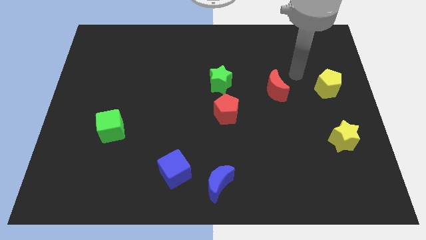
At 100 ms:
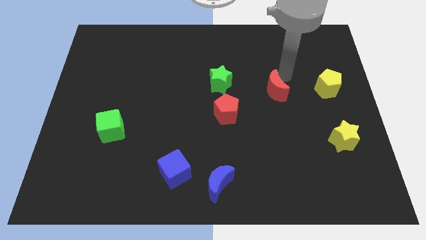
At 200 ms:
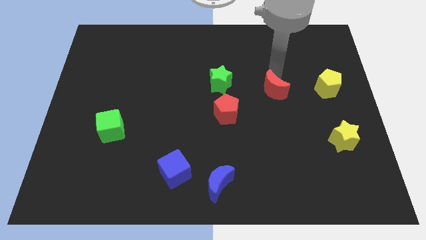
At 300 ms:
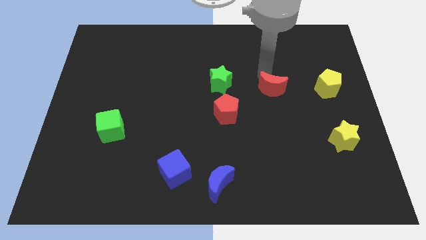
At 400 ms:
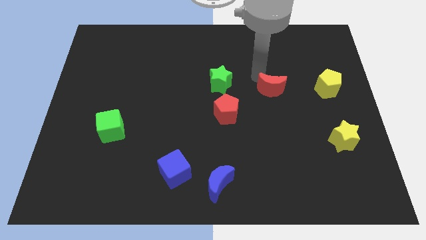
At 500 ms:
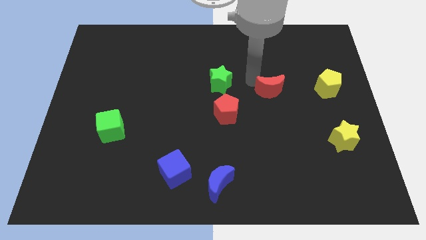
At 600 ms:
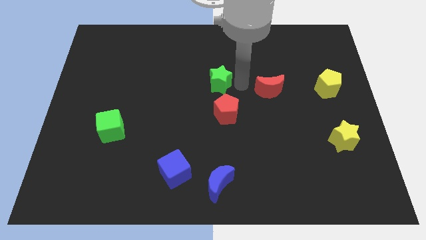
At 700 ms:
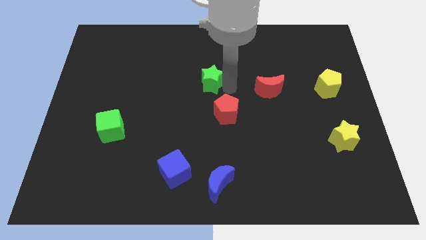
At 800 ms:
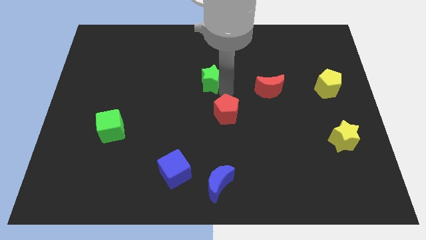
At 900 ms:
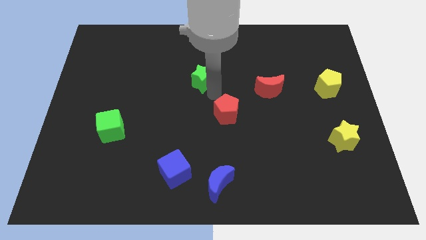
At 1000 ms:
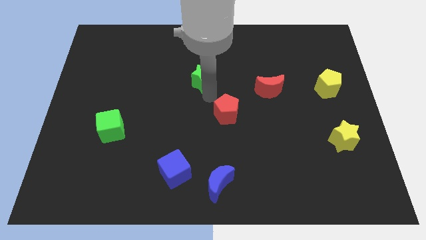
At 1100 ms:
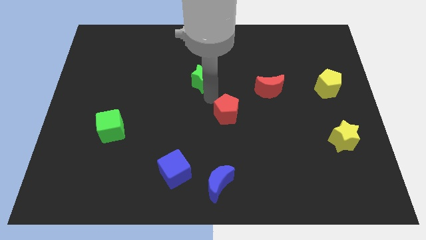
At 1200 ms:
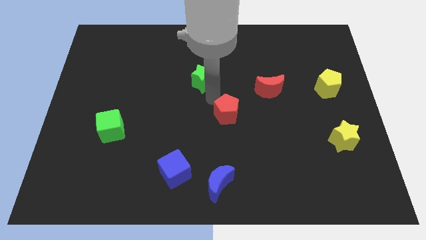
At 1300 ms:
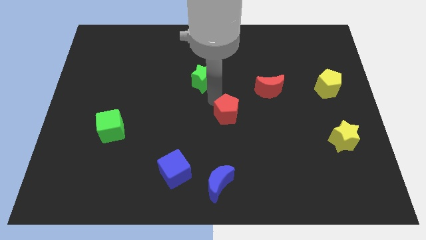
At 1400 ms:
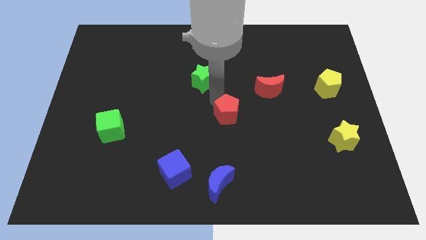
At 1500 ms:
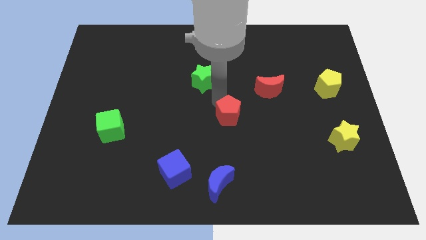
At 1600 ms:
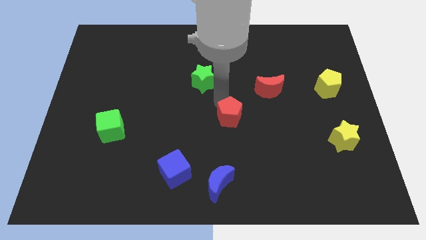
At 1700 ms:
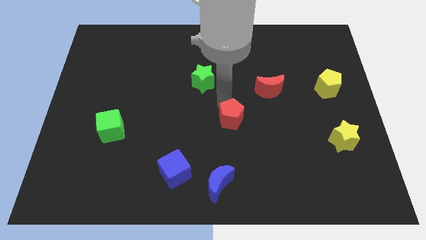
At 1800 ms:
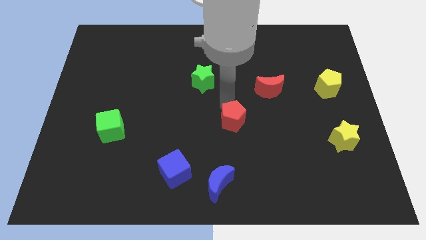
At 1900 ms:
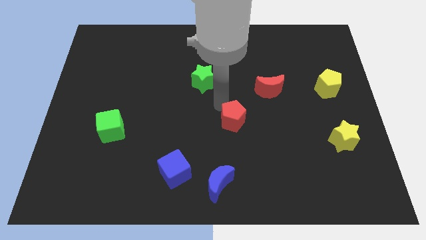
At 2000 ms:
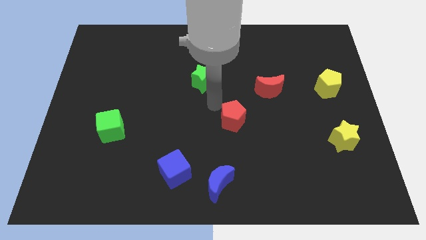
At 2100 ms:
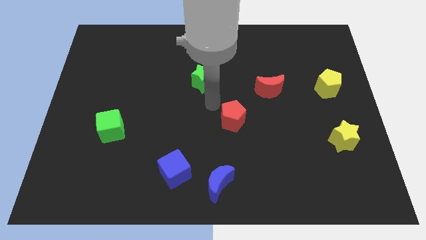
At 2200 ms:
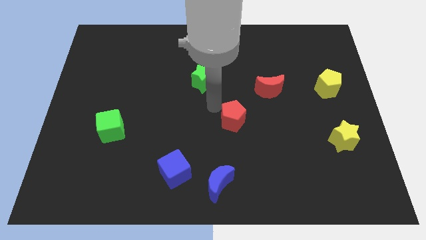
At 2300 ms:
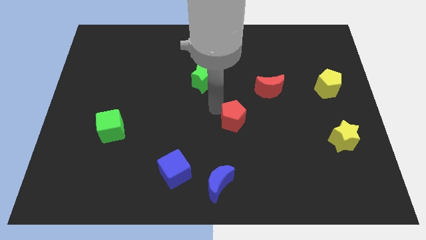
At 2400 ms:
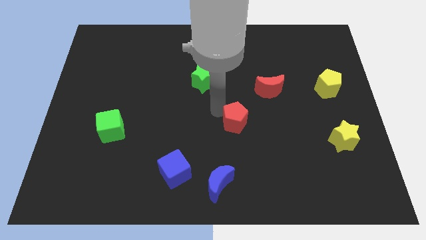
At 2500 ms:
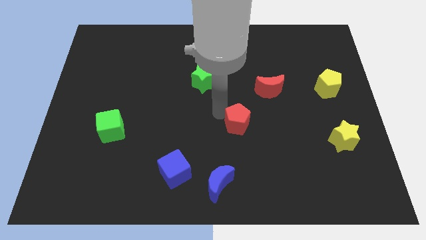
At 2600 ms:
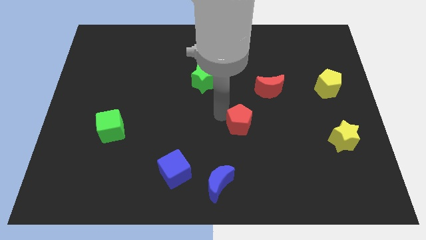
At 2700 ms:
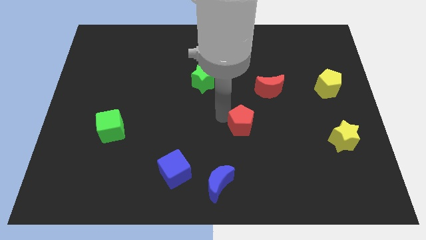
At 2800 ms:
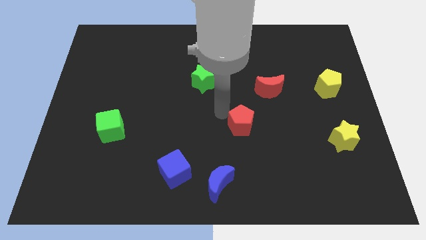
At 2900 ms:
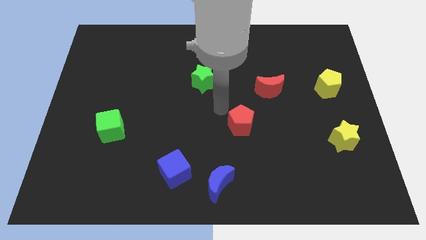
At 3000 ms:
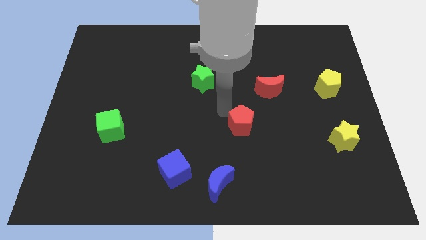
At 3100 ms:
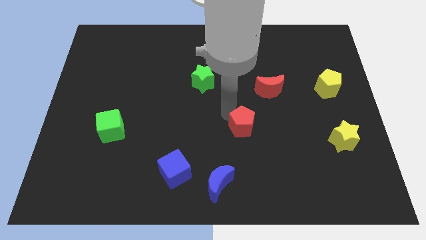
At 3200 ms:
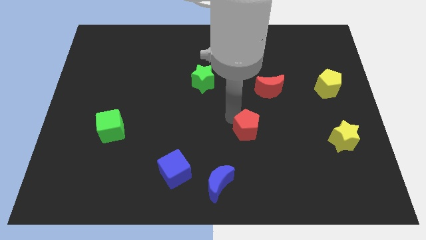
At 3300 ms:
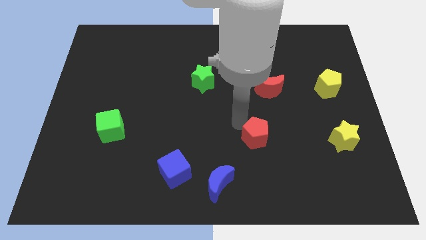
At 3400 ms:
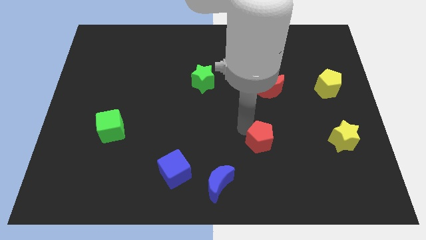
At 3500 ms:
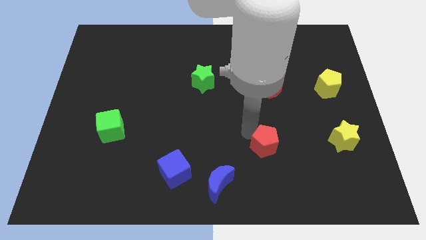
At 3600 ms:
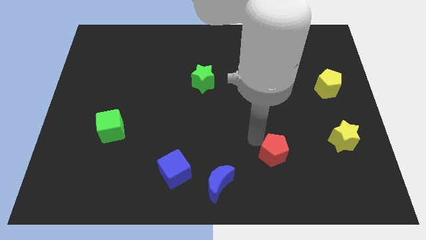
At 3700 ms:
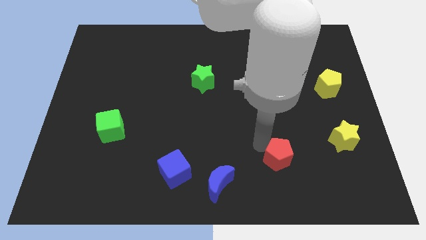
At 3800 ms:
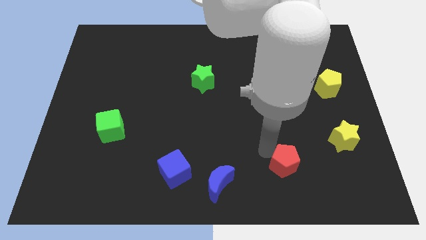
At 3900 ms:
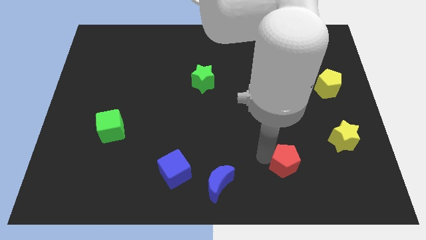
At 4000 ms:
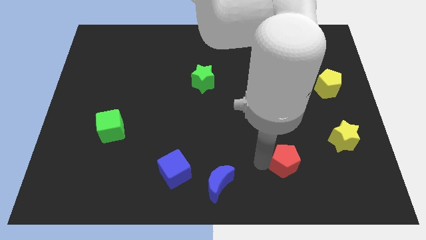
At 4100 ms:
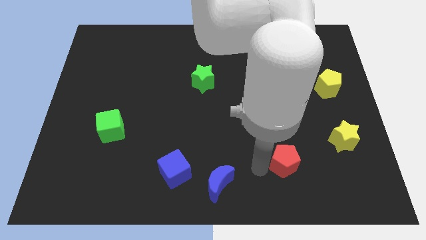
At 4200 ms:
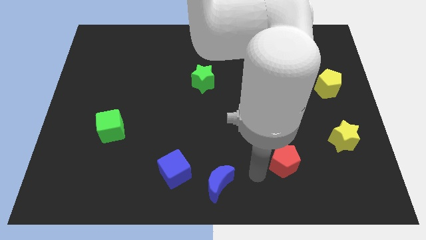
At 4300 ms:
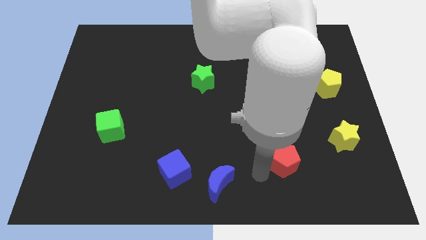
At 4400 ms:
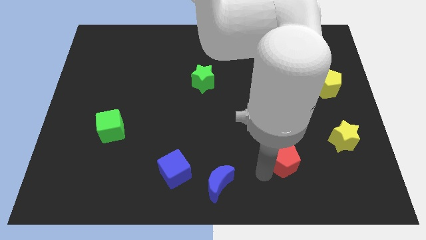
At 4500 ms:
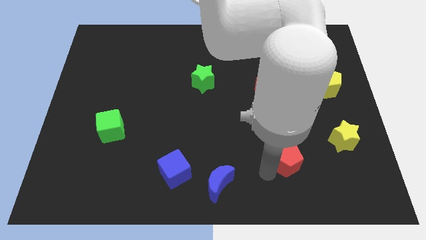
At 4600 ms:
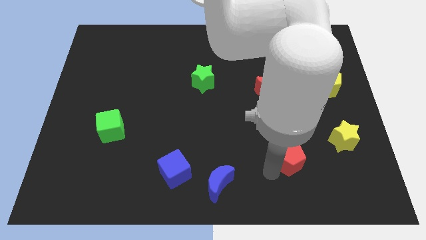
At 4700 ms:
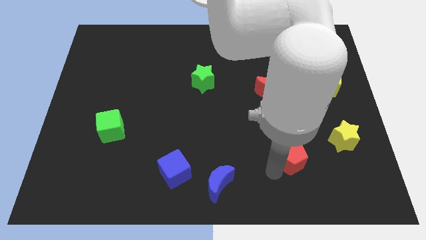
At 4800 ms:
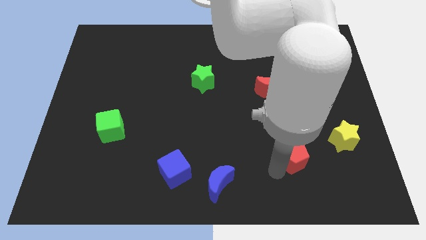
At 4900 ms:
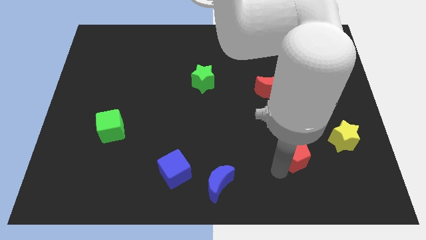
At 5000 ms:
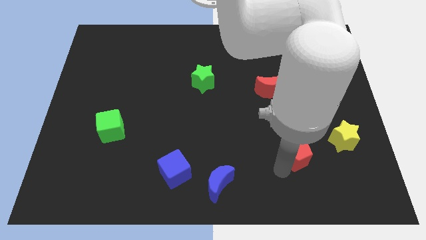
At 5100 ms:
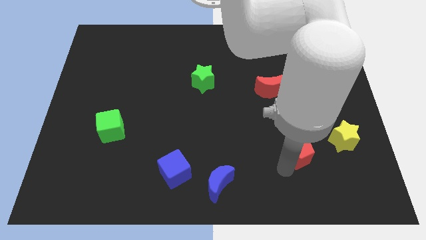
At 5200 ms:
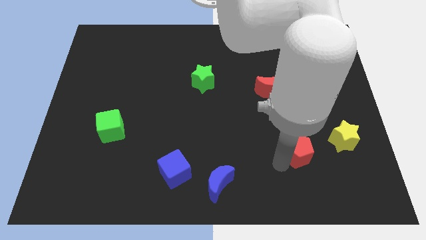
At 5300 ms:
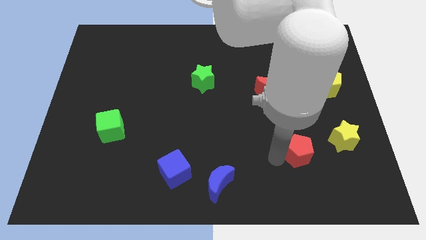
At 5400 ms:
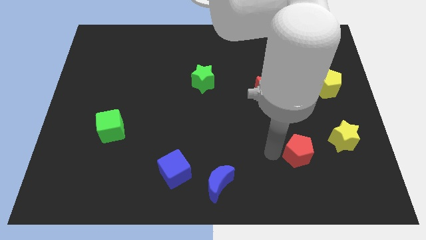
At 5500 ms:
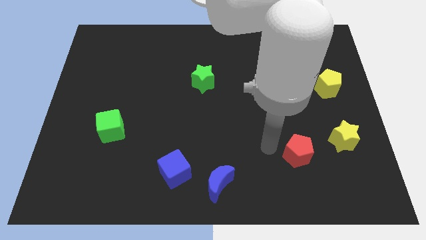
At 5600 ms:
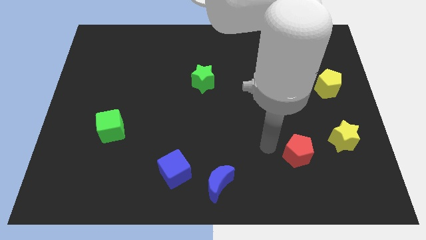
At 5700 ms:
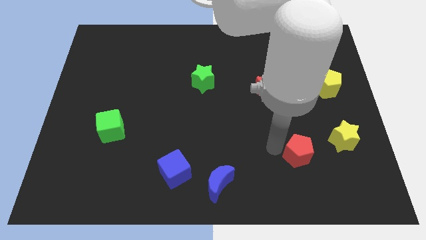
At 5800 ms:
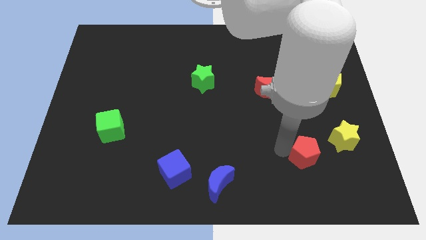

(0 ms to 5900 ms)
move the red pentagon diagonally down and to the left of the yellow star

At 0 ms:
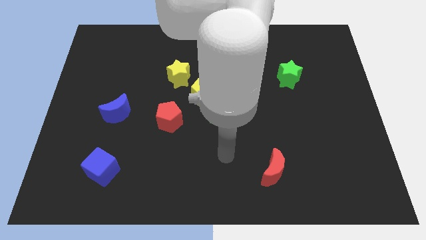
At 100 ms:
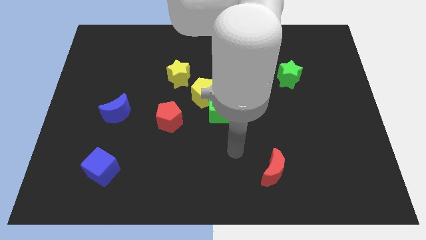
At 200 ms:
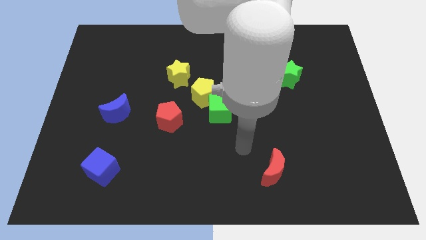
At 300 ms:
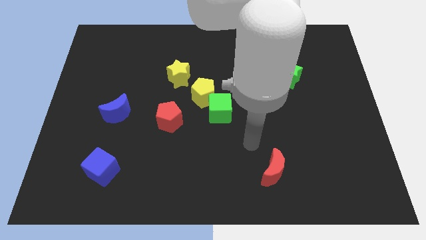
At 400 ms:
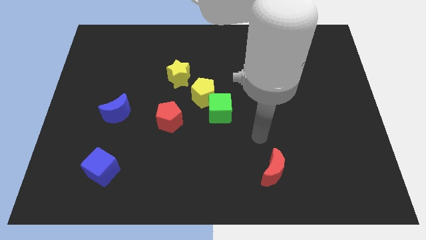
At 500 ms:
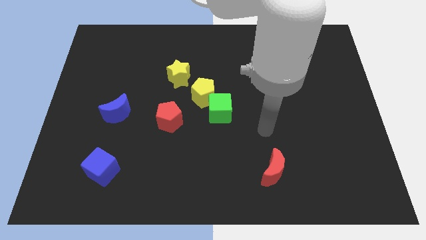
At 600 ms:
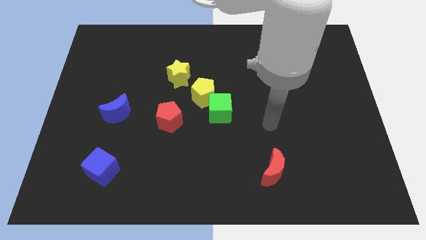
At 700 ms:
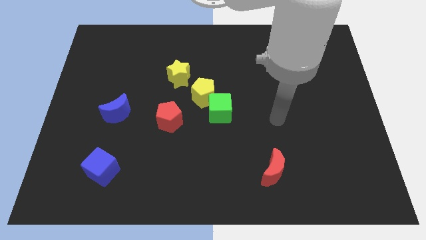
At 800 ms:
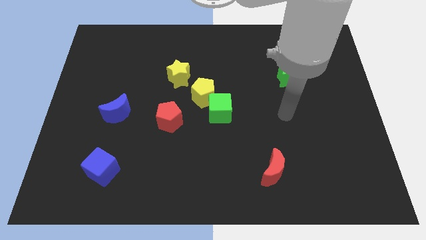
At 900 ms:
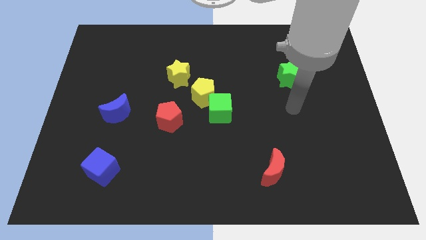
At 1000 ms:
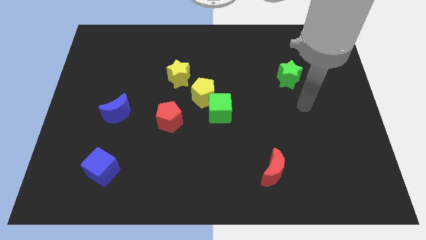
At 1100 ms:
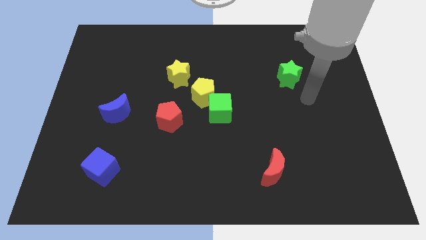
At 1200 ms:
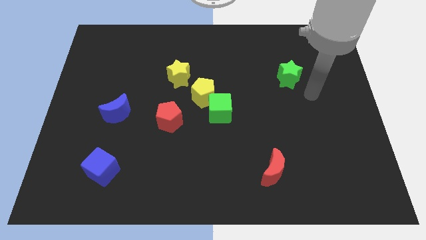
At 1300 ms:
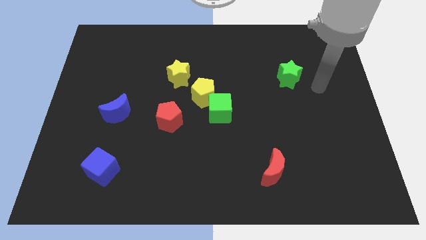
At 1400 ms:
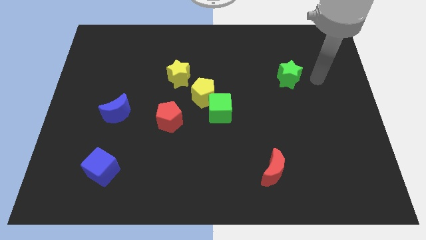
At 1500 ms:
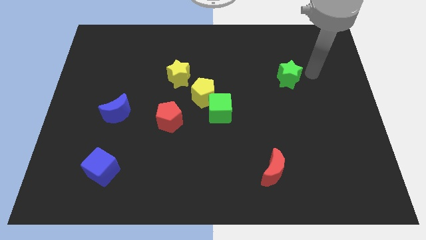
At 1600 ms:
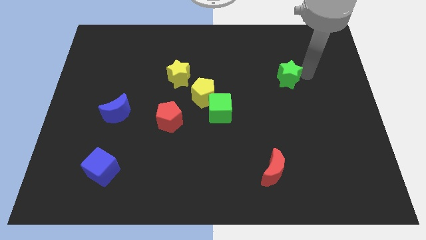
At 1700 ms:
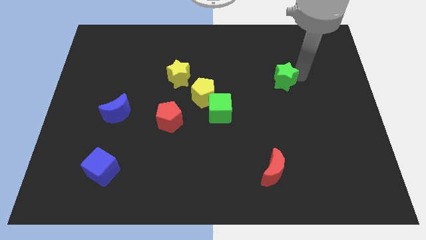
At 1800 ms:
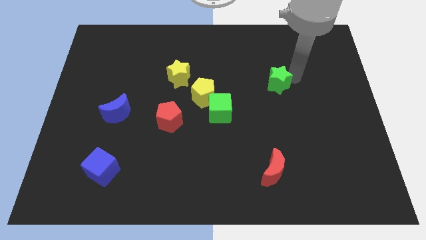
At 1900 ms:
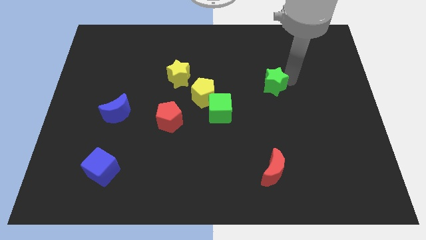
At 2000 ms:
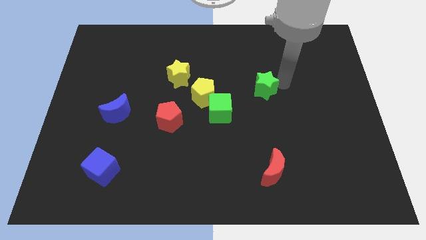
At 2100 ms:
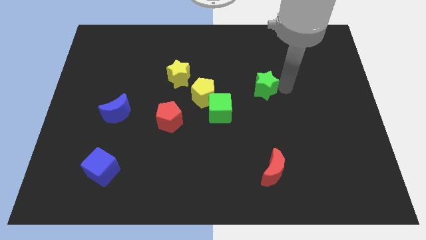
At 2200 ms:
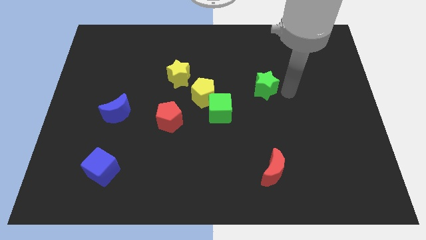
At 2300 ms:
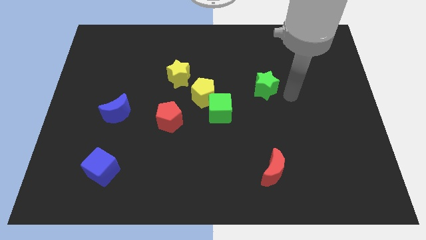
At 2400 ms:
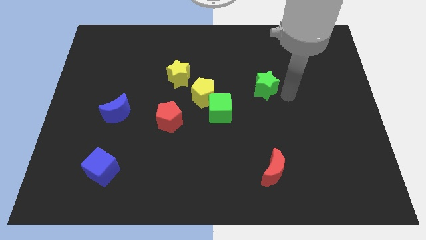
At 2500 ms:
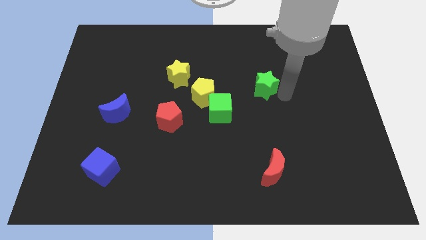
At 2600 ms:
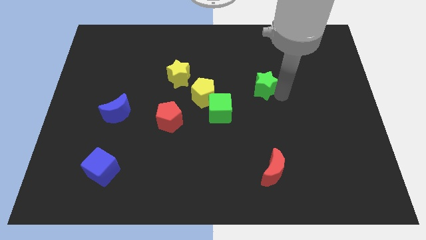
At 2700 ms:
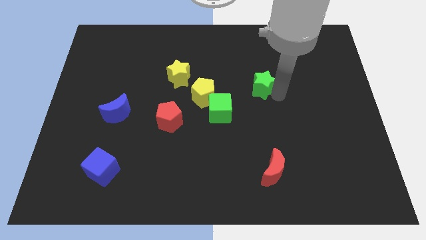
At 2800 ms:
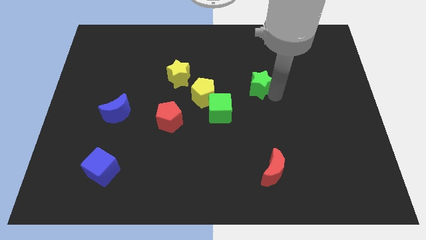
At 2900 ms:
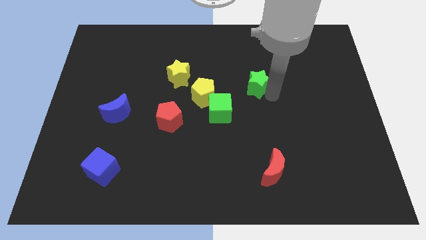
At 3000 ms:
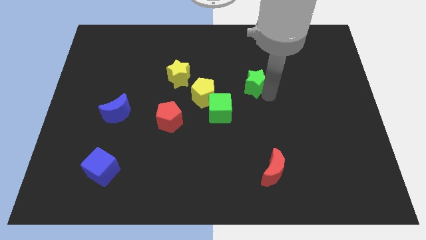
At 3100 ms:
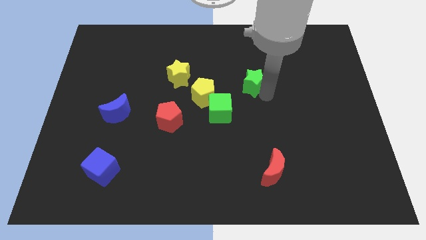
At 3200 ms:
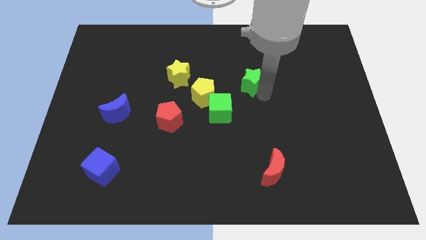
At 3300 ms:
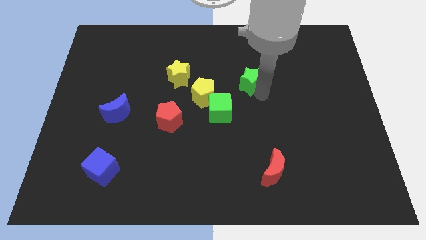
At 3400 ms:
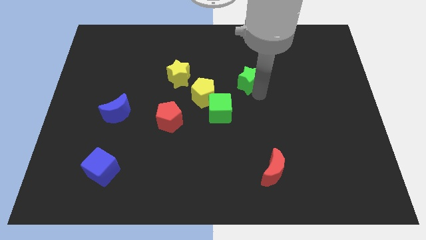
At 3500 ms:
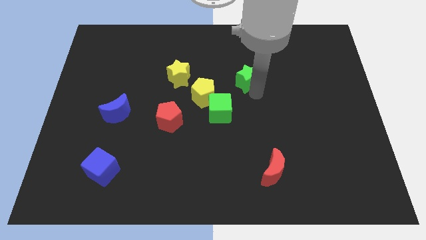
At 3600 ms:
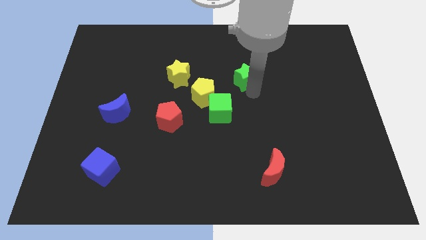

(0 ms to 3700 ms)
put the green star diagonally up and to the right of the yellow pentagon
